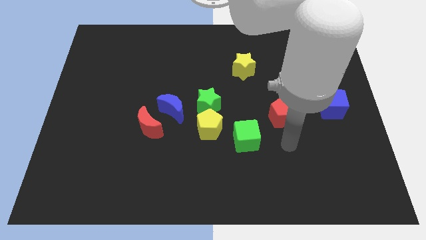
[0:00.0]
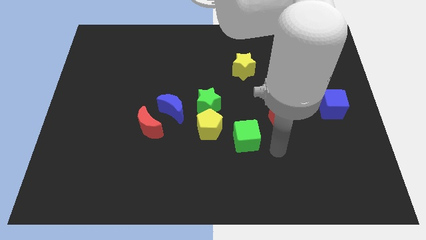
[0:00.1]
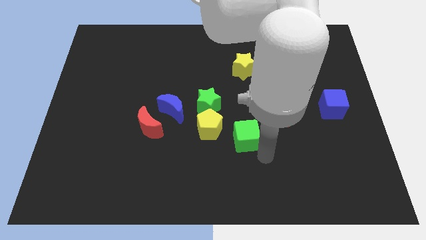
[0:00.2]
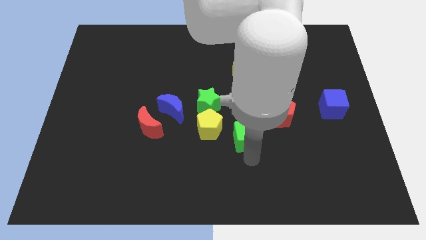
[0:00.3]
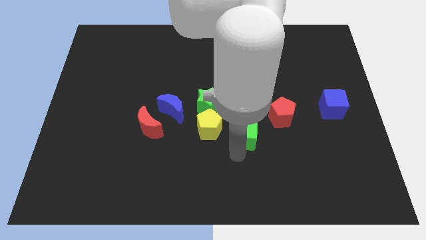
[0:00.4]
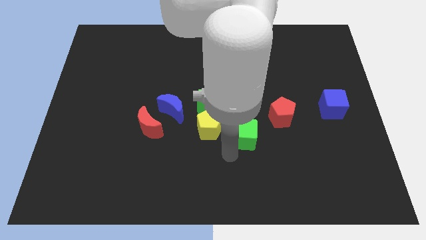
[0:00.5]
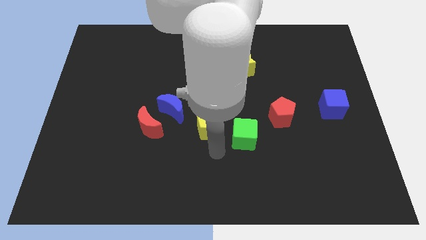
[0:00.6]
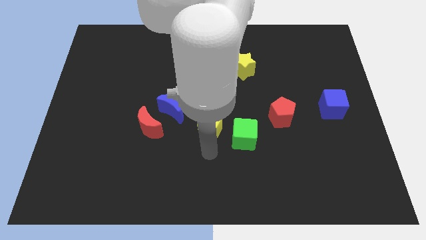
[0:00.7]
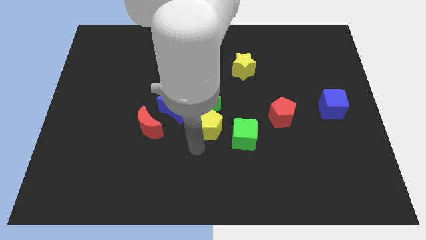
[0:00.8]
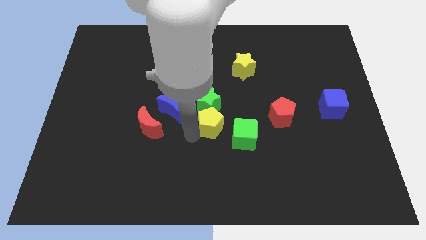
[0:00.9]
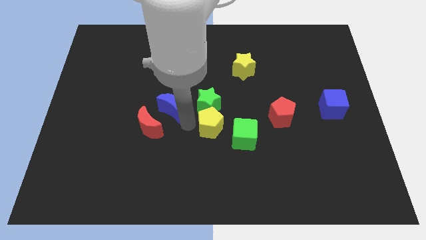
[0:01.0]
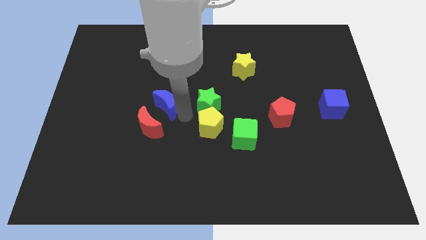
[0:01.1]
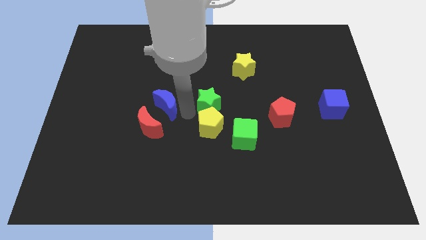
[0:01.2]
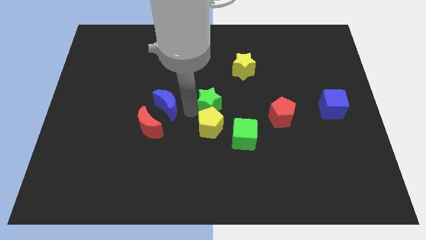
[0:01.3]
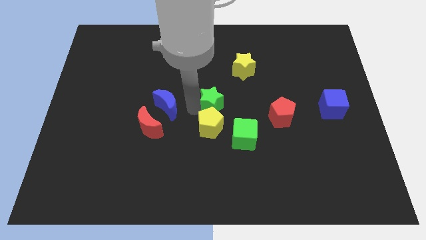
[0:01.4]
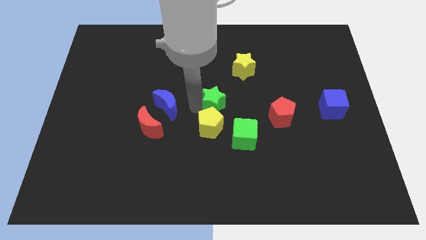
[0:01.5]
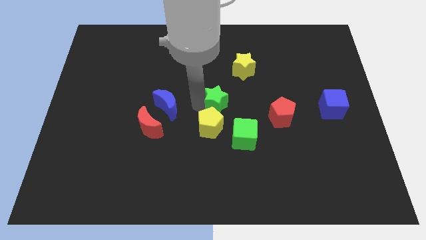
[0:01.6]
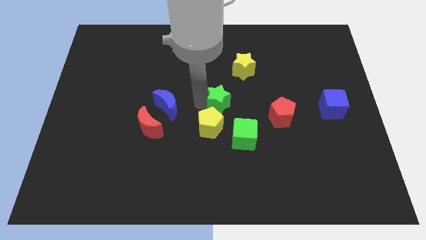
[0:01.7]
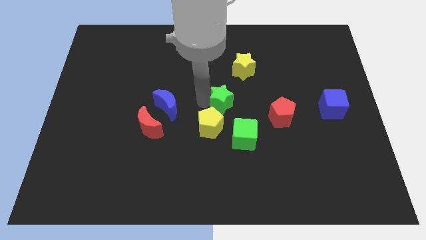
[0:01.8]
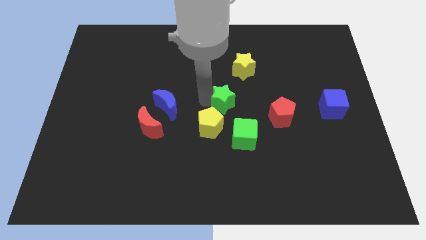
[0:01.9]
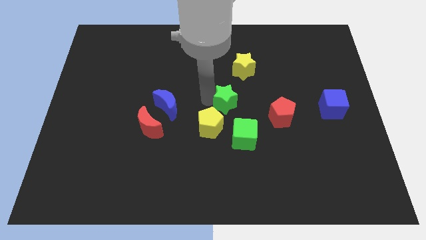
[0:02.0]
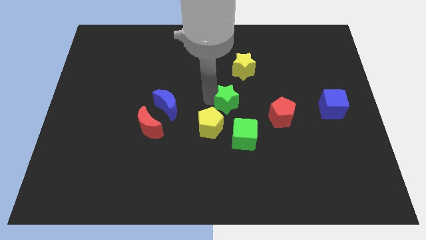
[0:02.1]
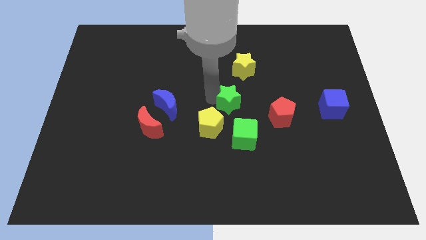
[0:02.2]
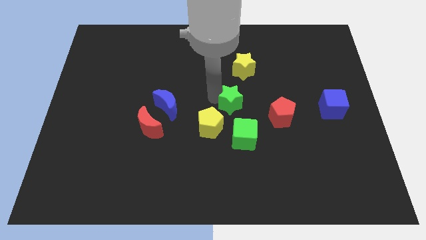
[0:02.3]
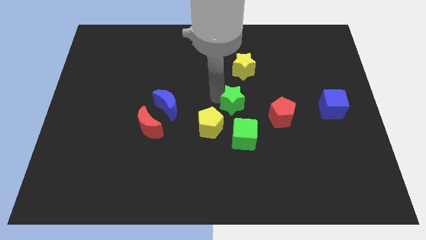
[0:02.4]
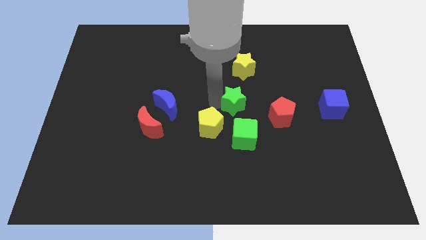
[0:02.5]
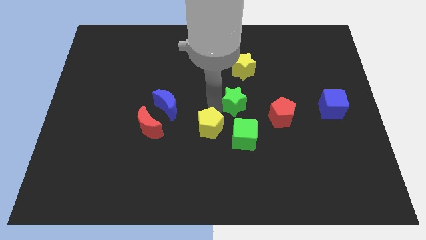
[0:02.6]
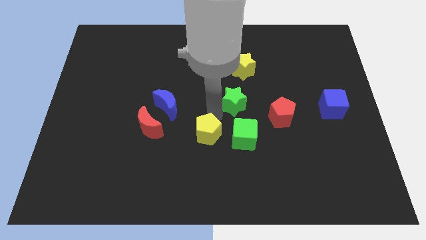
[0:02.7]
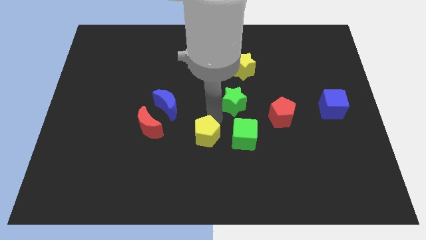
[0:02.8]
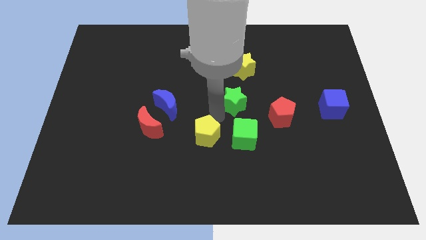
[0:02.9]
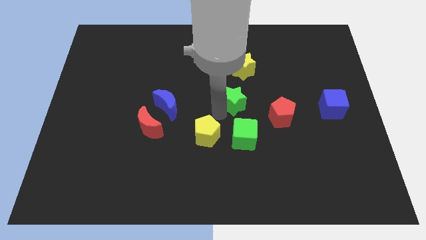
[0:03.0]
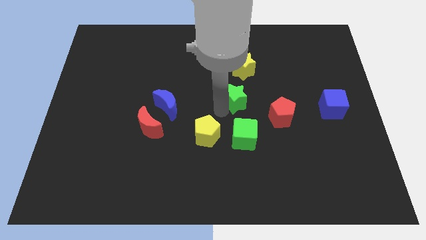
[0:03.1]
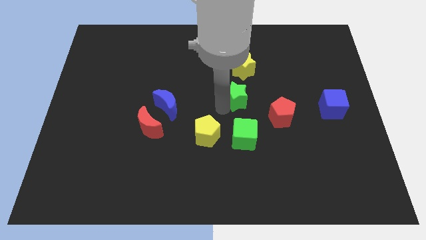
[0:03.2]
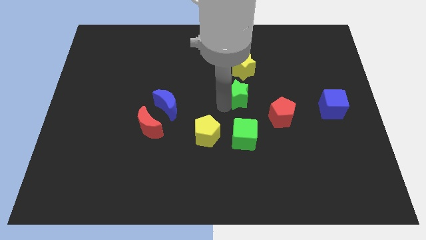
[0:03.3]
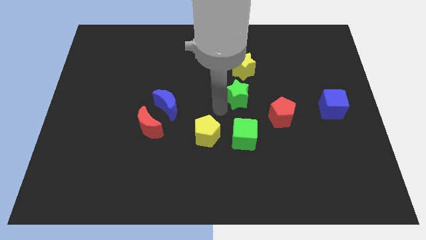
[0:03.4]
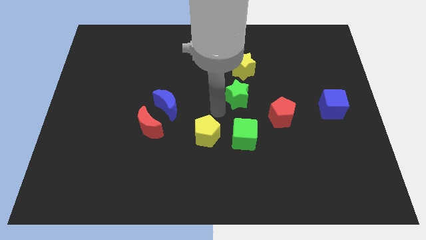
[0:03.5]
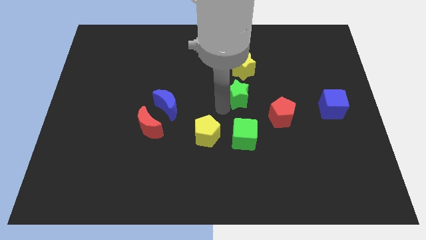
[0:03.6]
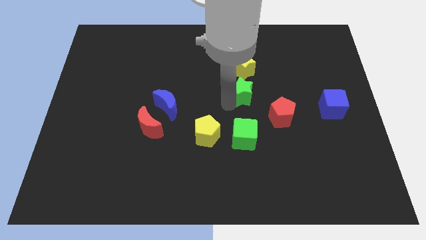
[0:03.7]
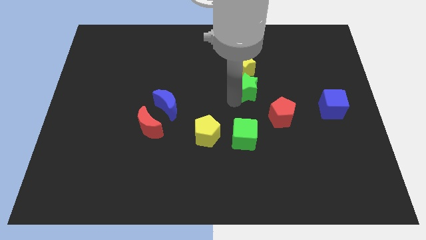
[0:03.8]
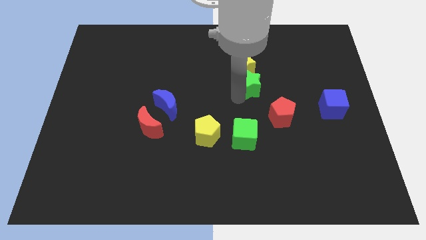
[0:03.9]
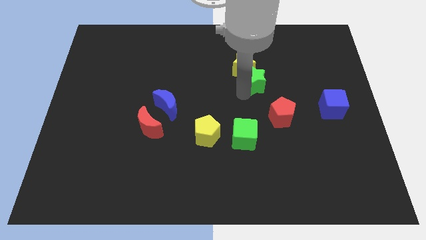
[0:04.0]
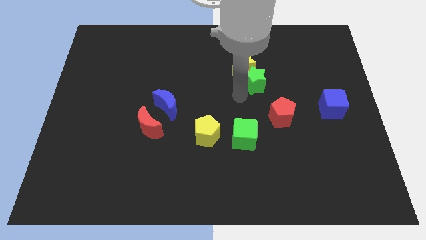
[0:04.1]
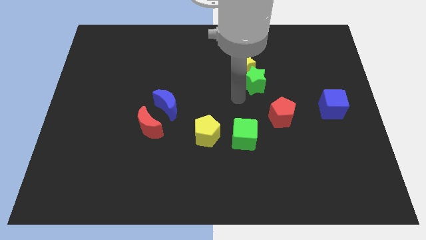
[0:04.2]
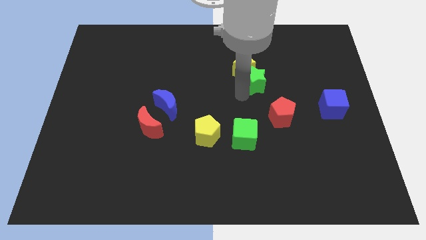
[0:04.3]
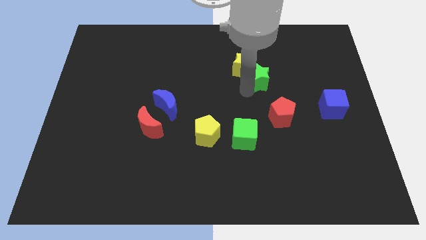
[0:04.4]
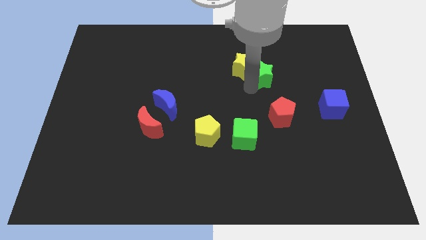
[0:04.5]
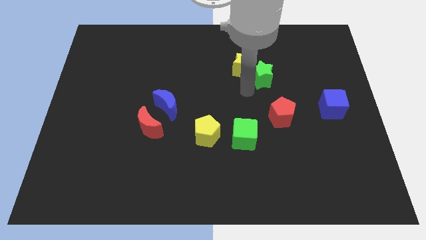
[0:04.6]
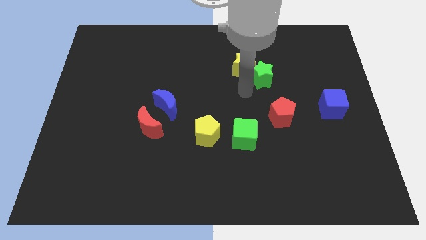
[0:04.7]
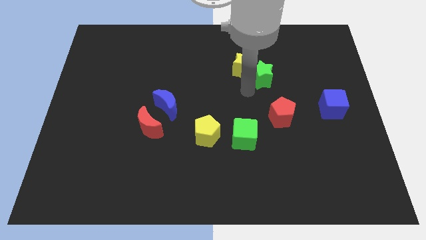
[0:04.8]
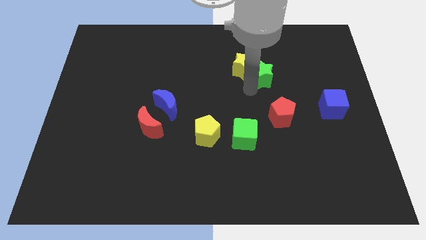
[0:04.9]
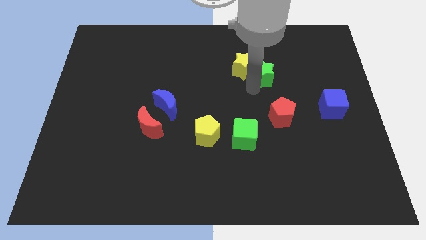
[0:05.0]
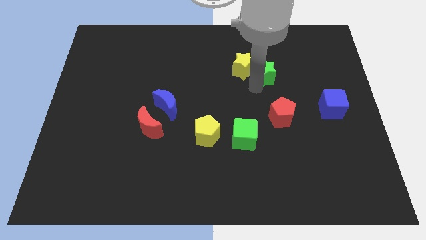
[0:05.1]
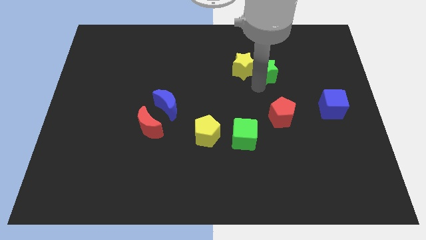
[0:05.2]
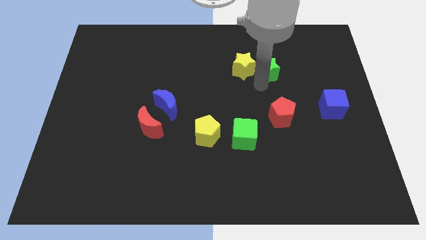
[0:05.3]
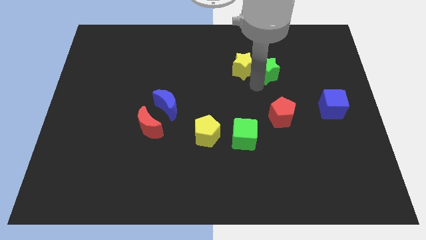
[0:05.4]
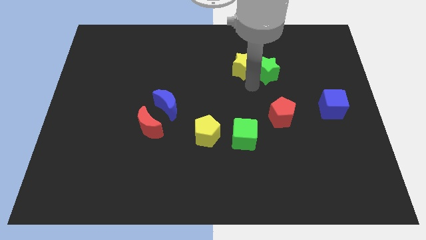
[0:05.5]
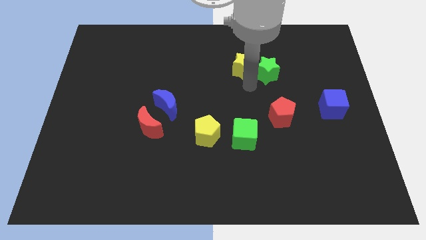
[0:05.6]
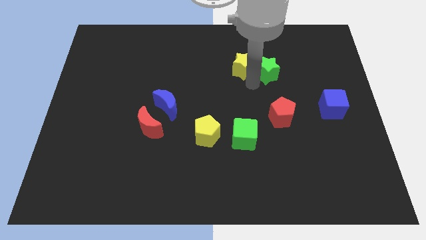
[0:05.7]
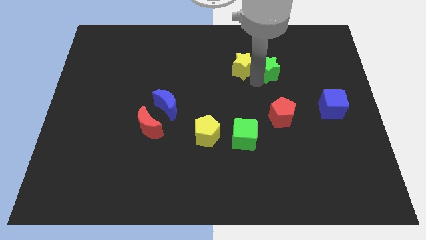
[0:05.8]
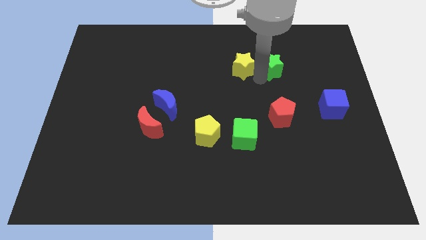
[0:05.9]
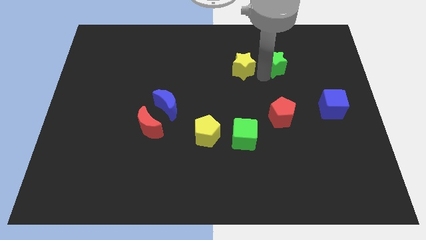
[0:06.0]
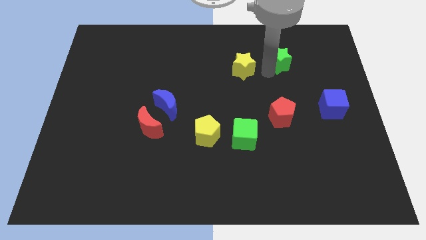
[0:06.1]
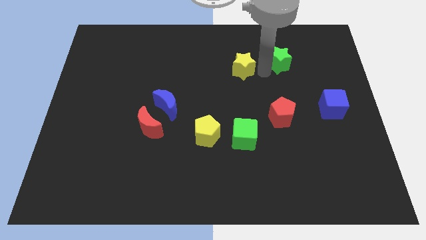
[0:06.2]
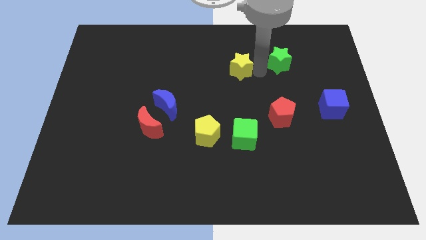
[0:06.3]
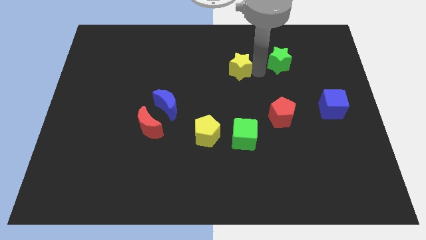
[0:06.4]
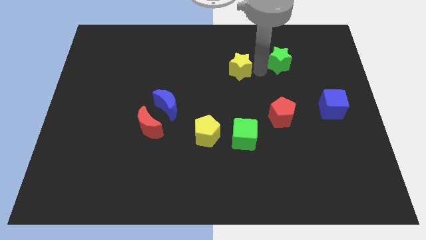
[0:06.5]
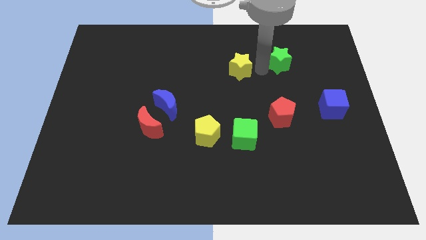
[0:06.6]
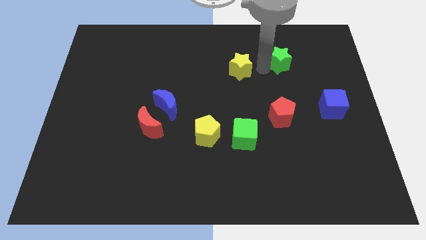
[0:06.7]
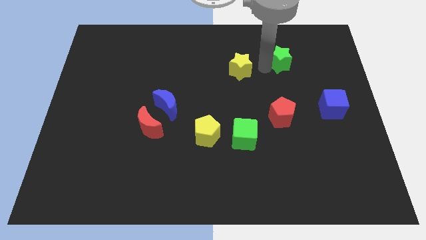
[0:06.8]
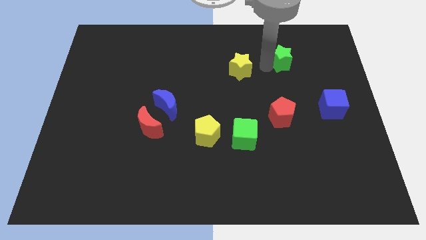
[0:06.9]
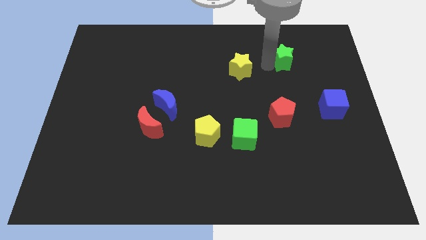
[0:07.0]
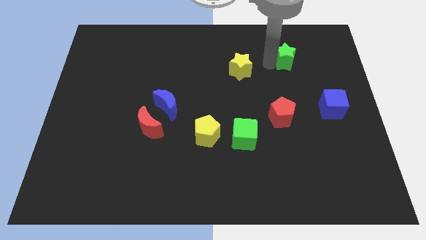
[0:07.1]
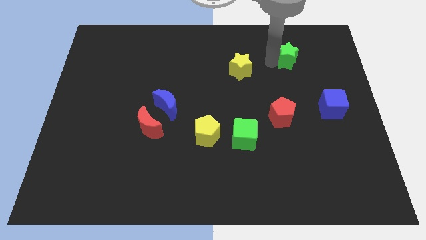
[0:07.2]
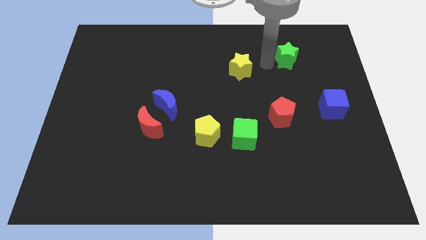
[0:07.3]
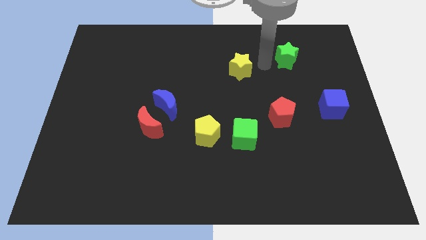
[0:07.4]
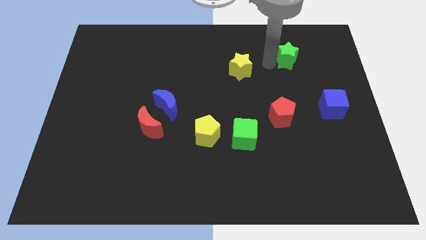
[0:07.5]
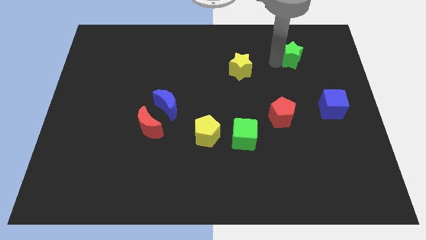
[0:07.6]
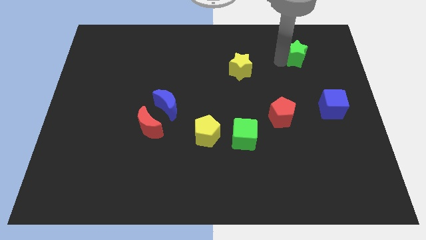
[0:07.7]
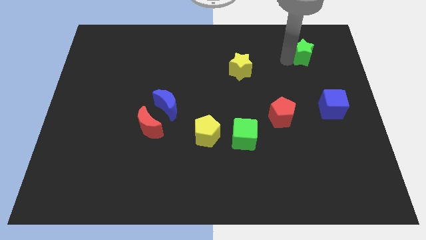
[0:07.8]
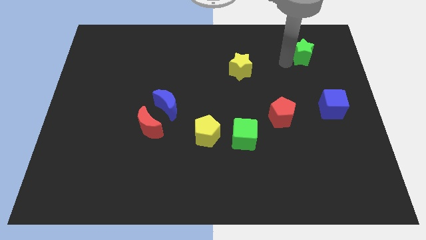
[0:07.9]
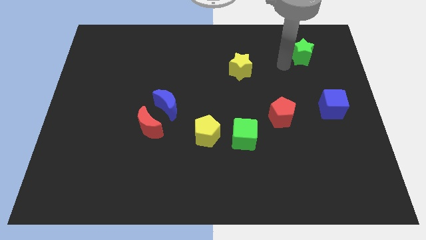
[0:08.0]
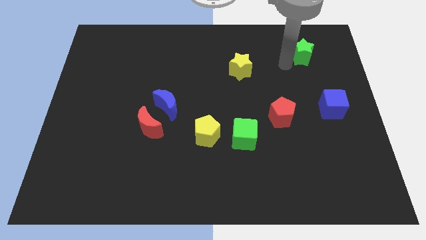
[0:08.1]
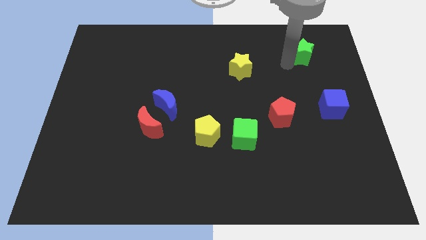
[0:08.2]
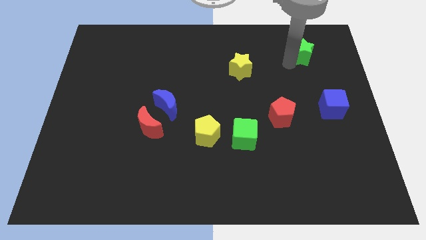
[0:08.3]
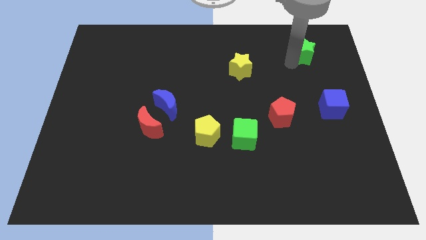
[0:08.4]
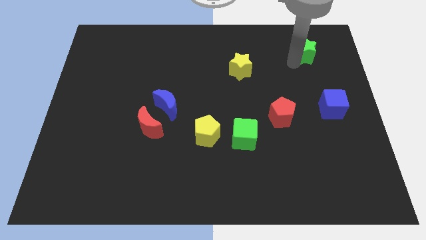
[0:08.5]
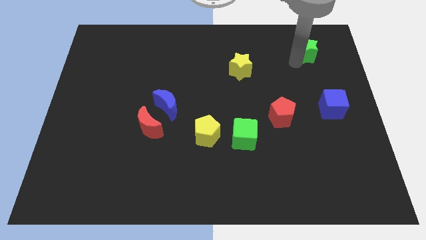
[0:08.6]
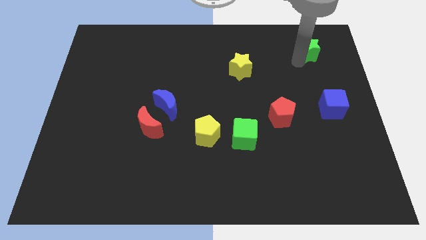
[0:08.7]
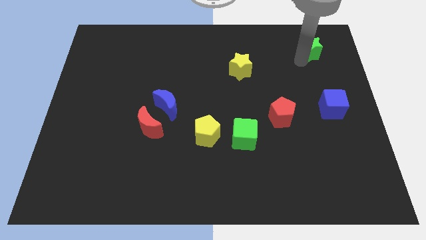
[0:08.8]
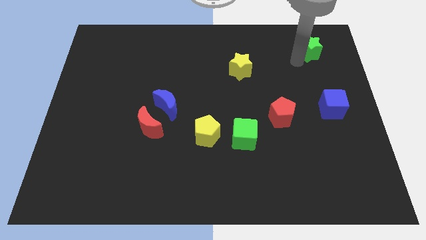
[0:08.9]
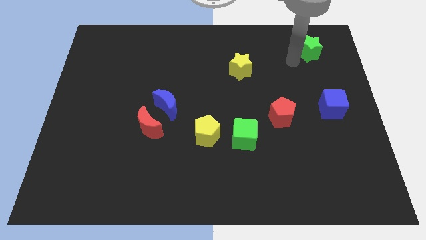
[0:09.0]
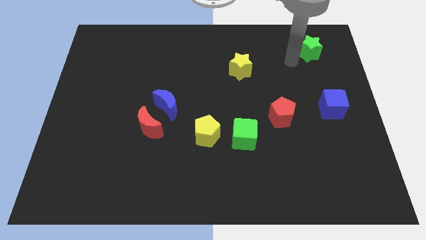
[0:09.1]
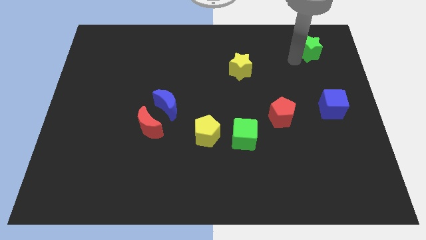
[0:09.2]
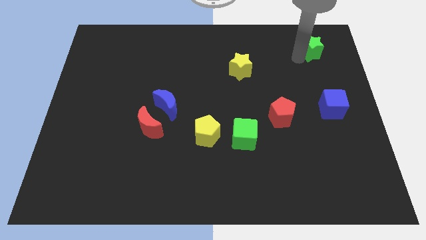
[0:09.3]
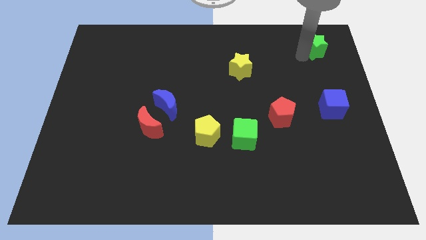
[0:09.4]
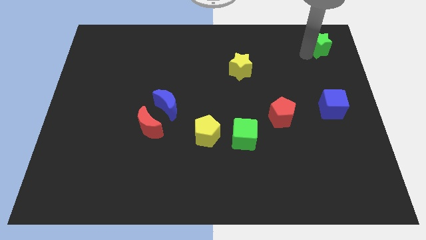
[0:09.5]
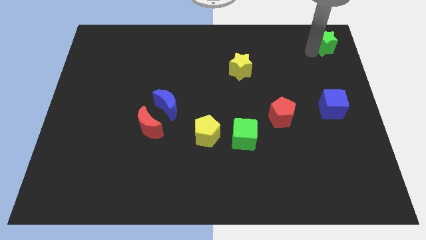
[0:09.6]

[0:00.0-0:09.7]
push the green star to the top right corner
